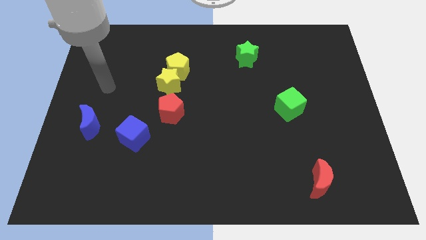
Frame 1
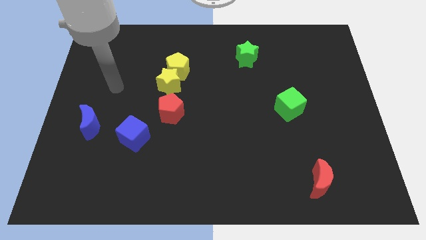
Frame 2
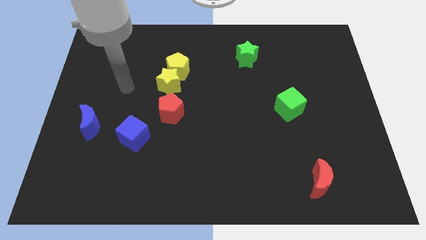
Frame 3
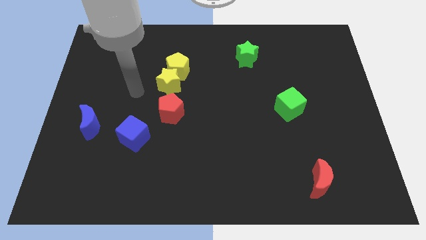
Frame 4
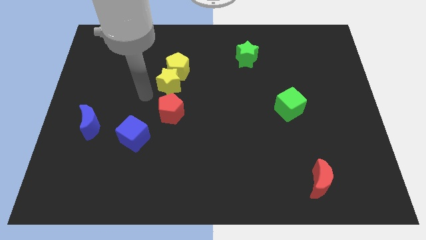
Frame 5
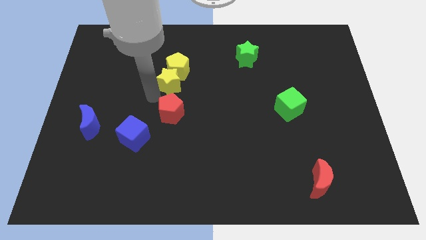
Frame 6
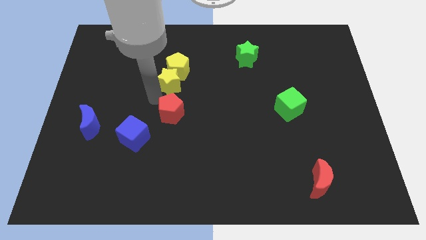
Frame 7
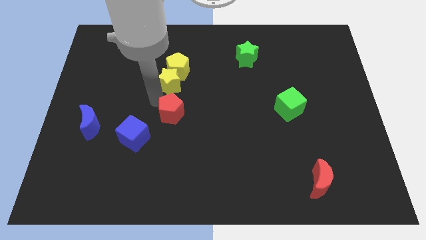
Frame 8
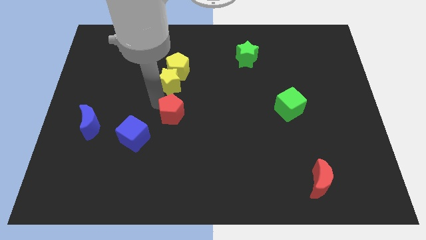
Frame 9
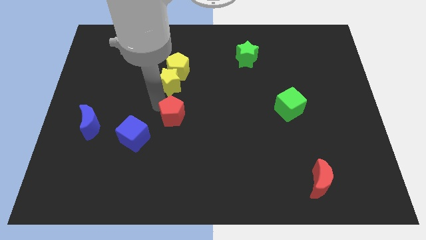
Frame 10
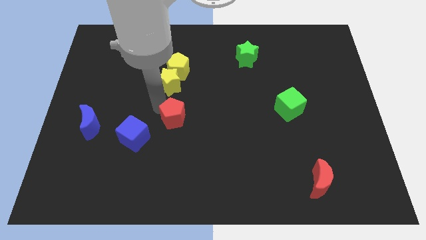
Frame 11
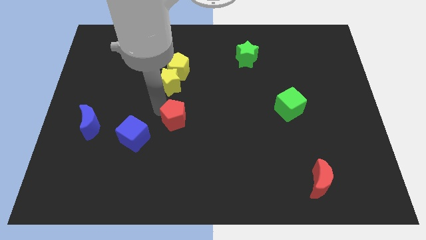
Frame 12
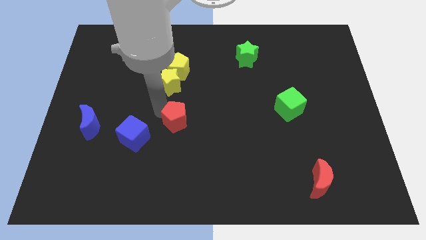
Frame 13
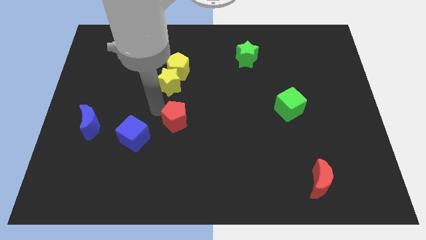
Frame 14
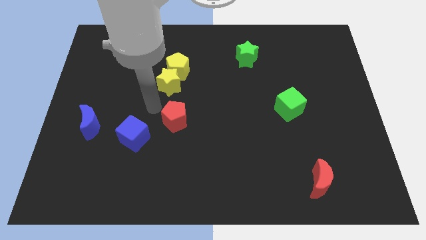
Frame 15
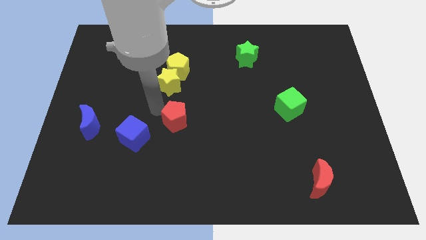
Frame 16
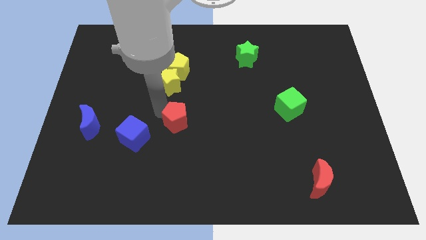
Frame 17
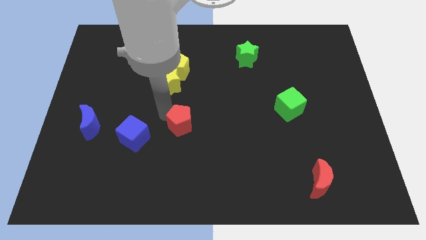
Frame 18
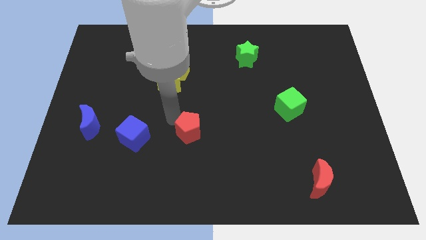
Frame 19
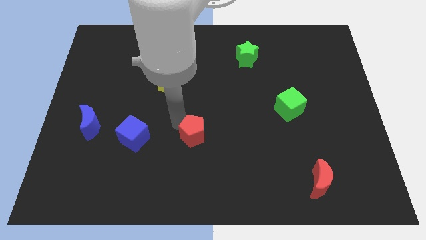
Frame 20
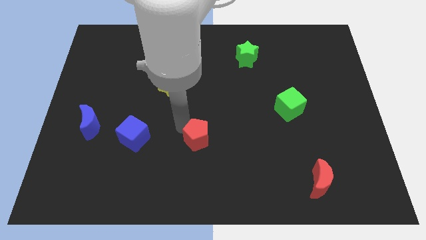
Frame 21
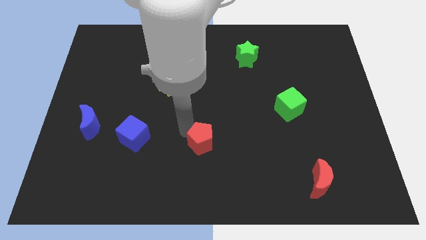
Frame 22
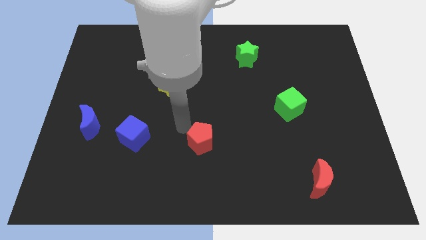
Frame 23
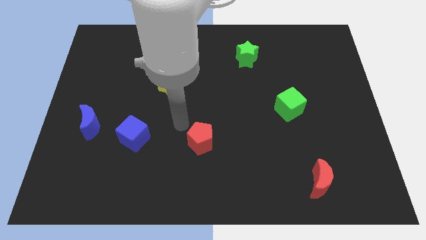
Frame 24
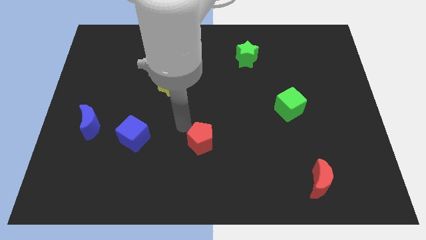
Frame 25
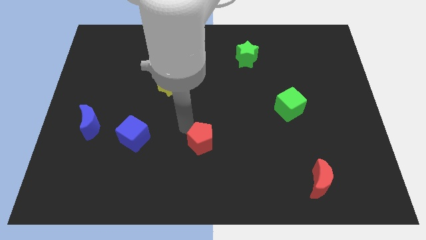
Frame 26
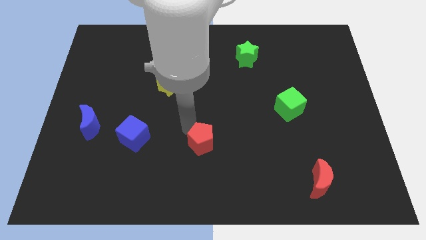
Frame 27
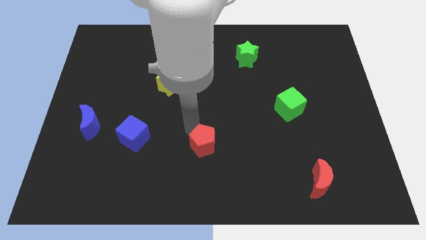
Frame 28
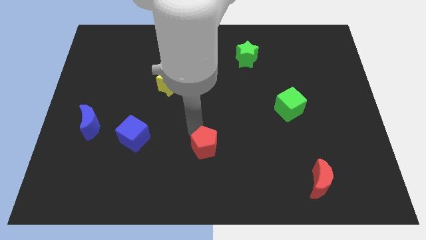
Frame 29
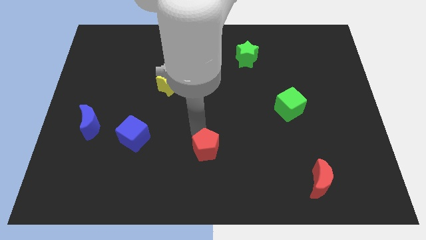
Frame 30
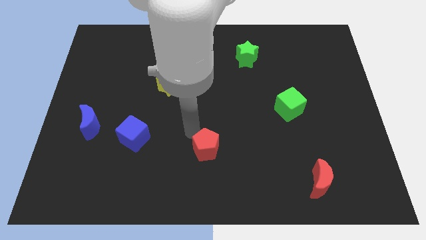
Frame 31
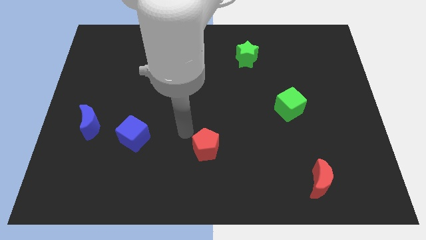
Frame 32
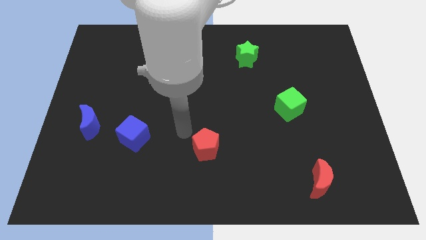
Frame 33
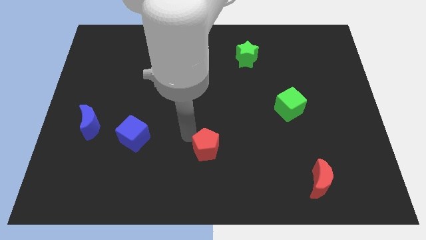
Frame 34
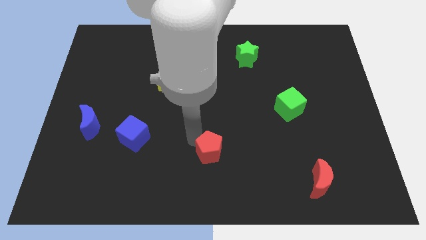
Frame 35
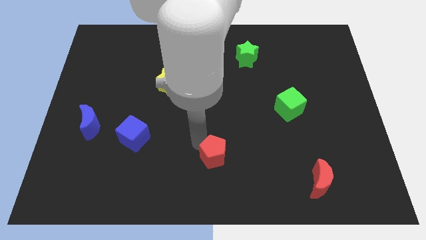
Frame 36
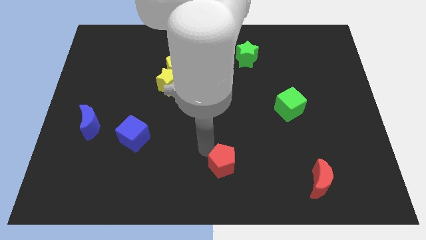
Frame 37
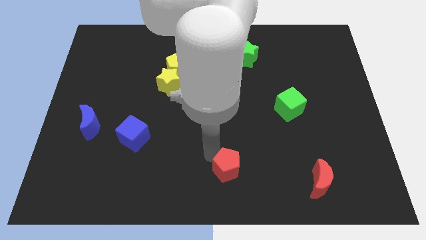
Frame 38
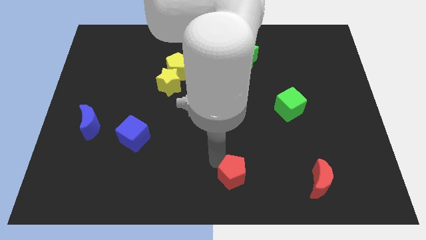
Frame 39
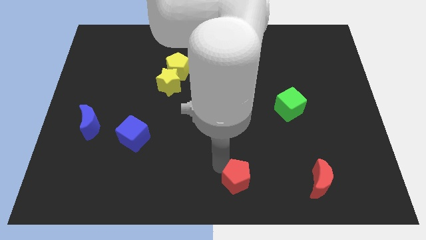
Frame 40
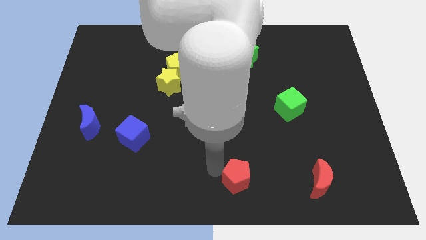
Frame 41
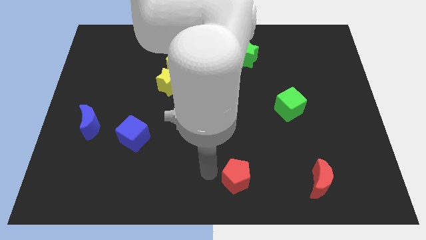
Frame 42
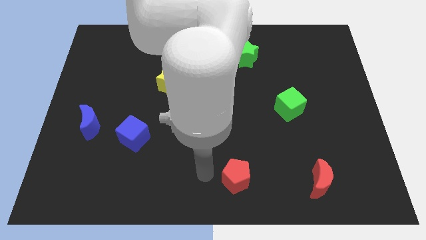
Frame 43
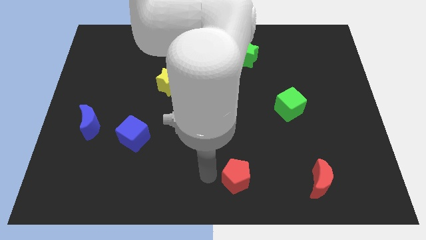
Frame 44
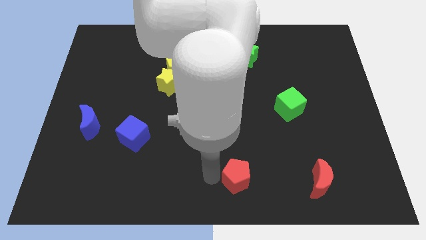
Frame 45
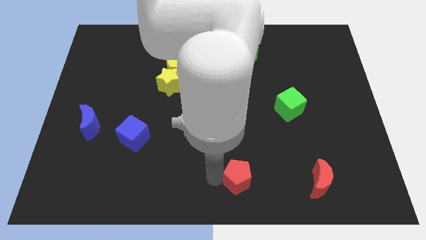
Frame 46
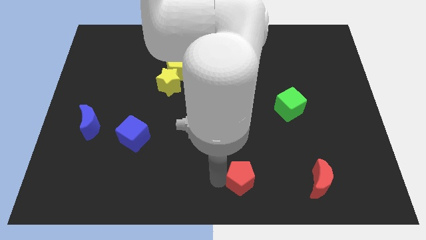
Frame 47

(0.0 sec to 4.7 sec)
put the red pentagon to the left of the red moon

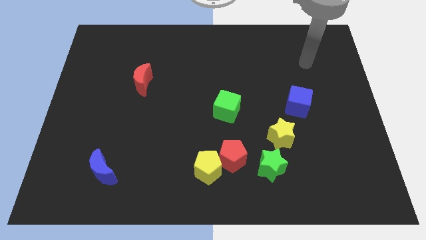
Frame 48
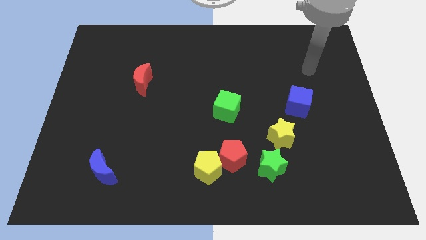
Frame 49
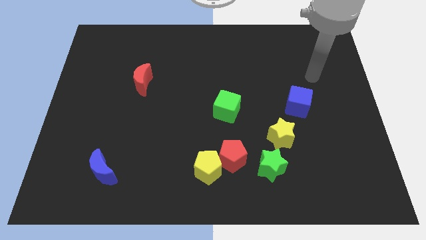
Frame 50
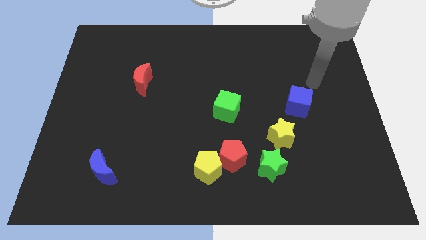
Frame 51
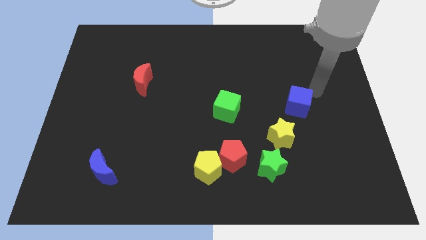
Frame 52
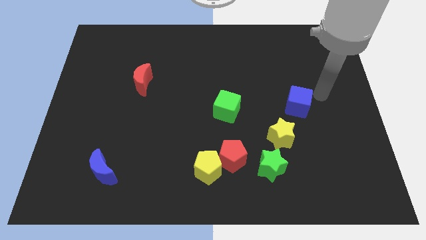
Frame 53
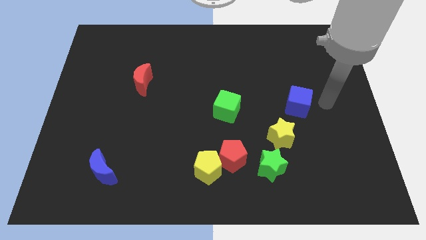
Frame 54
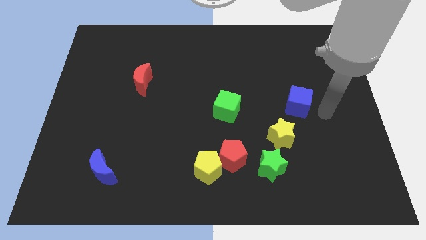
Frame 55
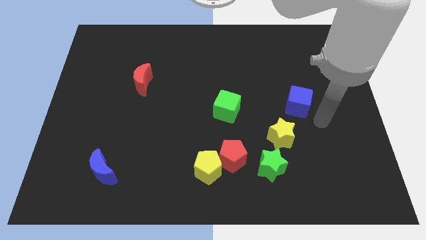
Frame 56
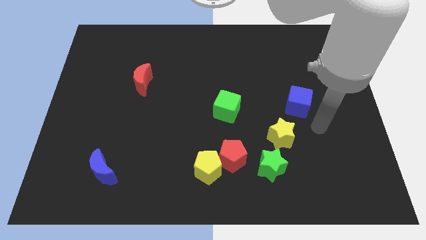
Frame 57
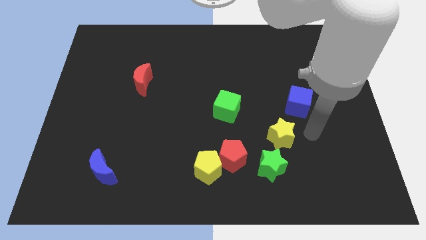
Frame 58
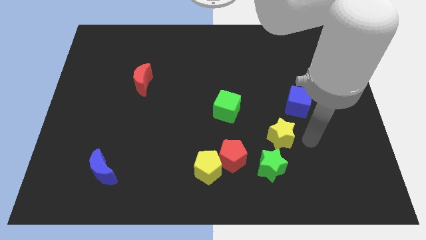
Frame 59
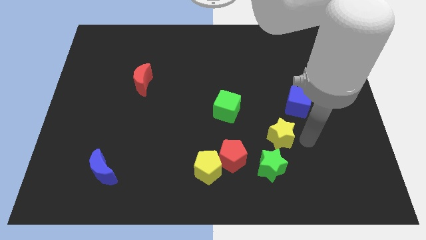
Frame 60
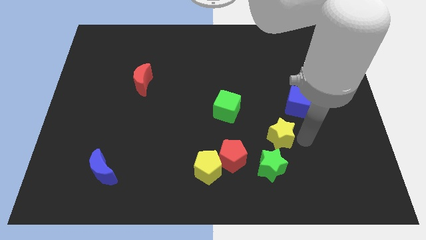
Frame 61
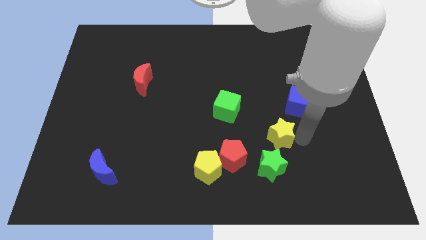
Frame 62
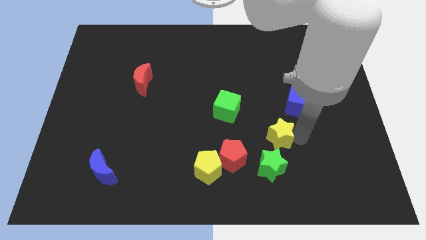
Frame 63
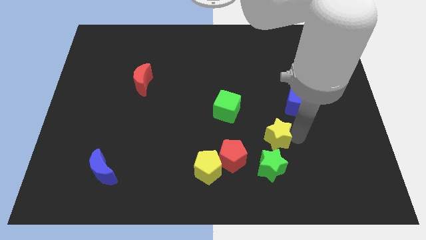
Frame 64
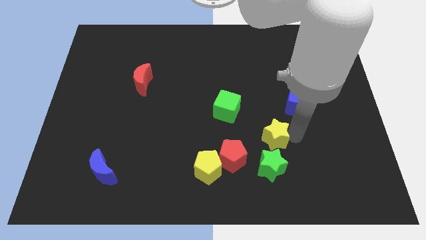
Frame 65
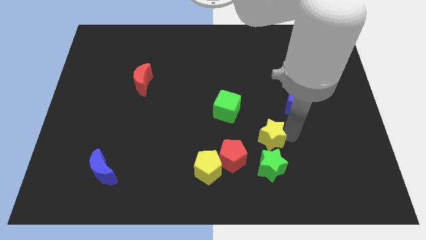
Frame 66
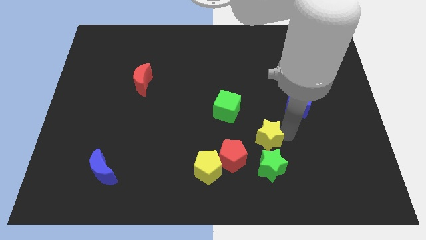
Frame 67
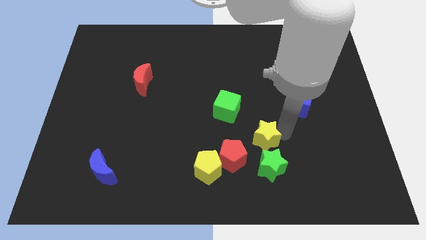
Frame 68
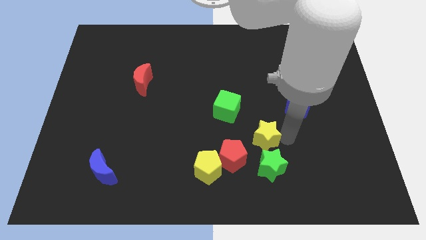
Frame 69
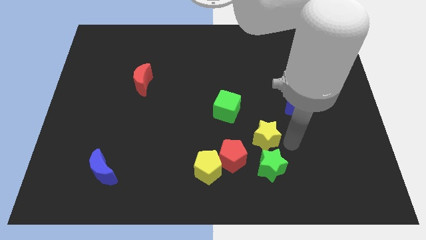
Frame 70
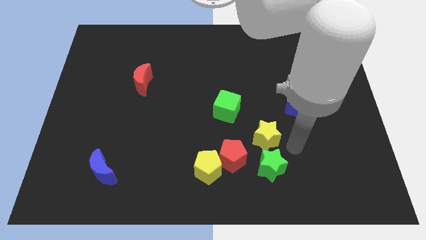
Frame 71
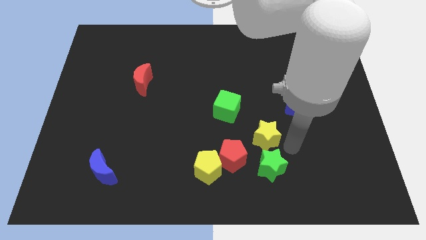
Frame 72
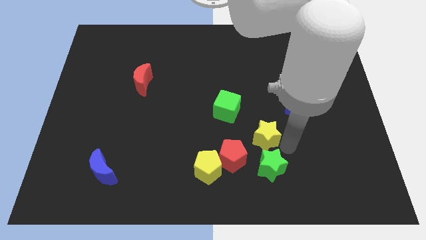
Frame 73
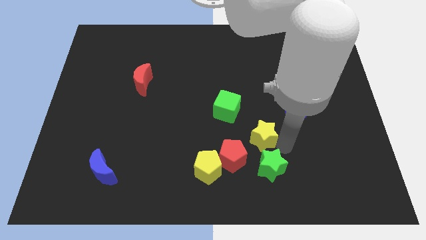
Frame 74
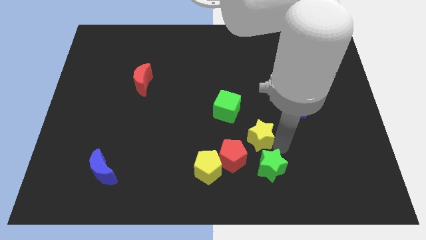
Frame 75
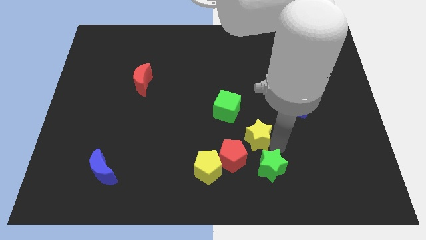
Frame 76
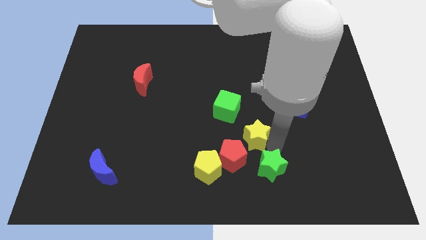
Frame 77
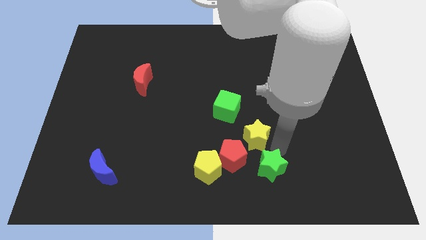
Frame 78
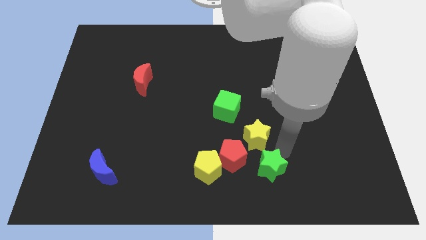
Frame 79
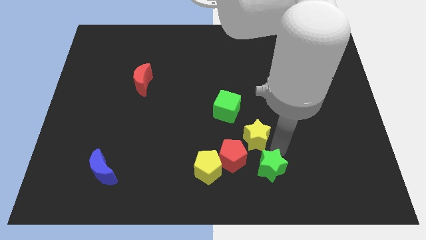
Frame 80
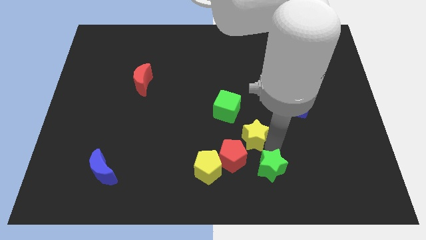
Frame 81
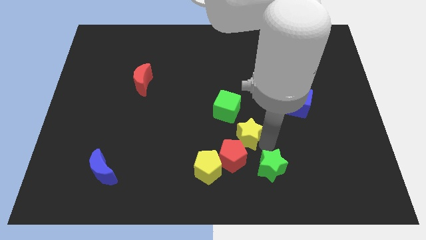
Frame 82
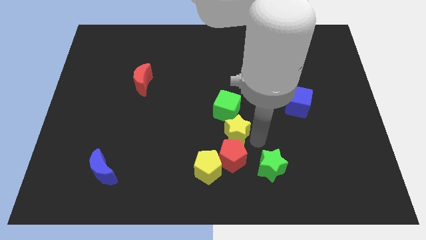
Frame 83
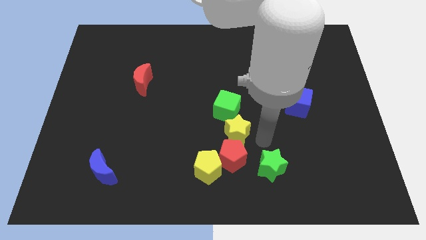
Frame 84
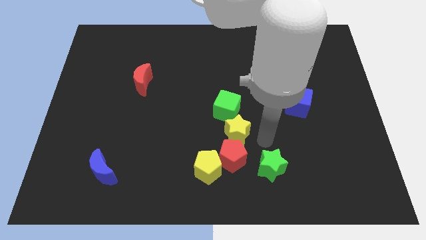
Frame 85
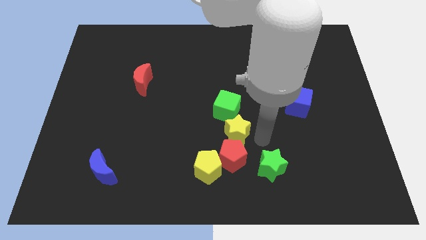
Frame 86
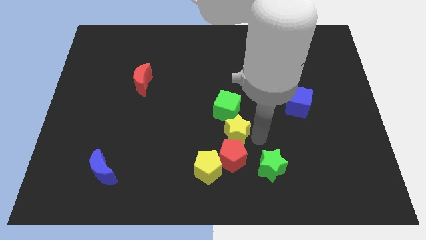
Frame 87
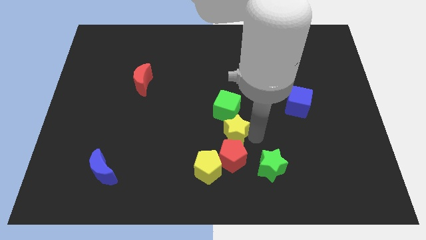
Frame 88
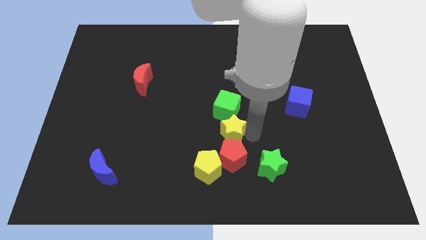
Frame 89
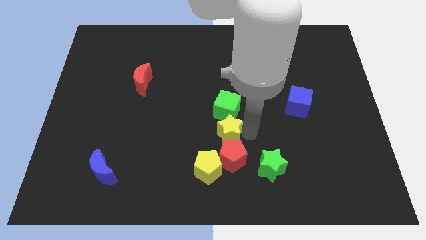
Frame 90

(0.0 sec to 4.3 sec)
put the yellow star to the top side of the yellow pentagon
